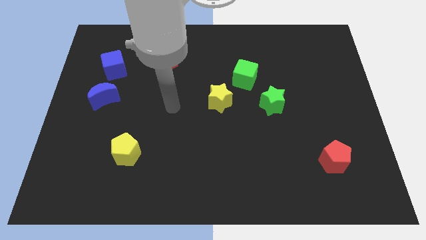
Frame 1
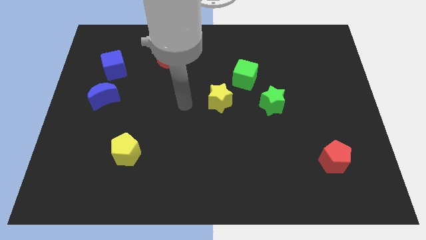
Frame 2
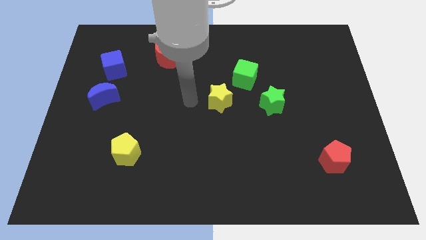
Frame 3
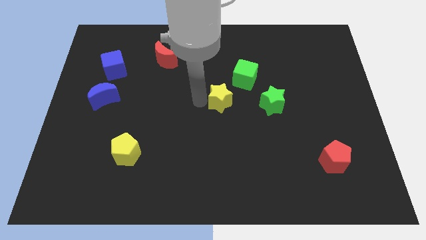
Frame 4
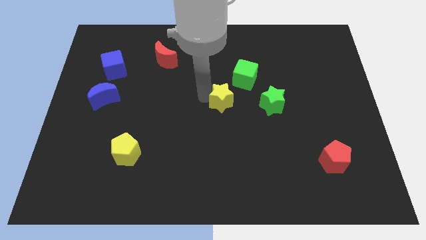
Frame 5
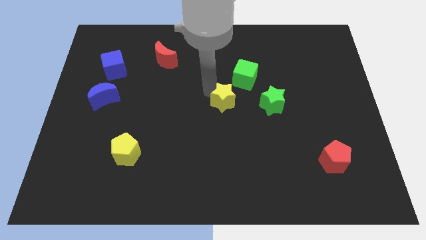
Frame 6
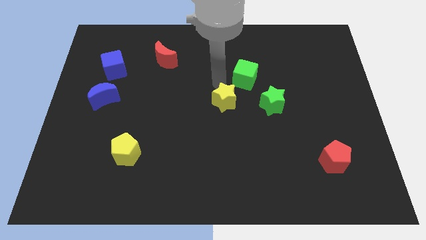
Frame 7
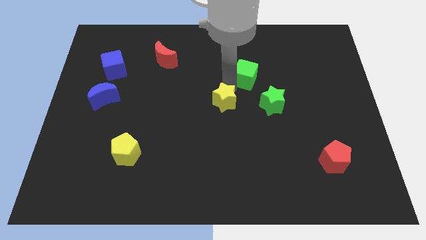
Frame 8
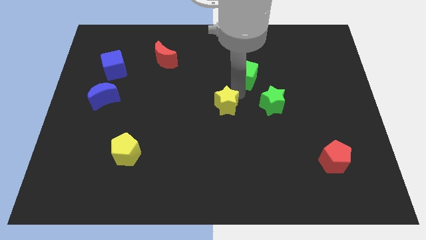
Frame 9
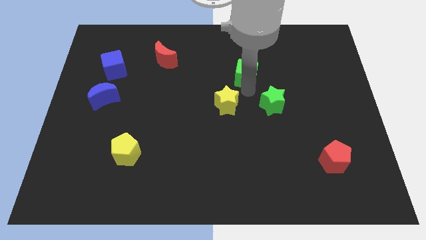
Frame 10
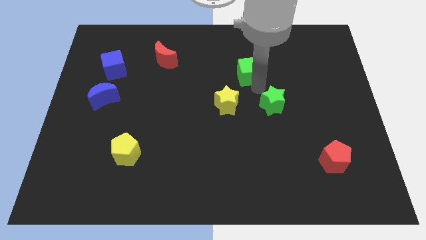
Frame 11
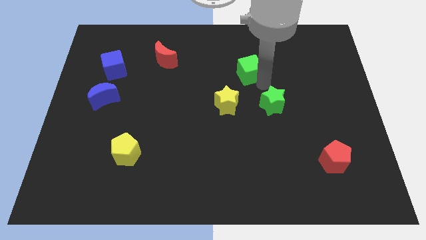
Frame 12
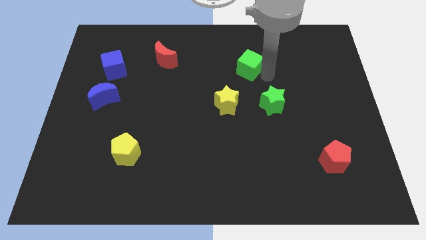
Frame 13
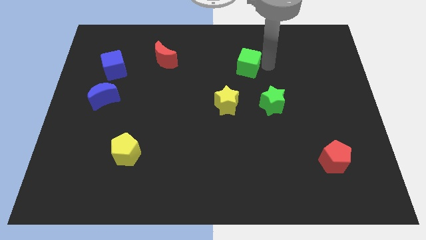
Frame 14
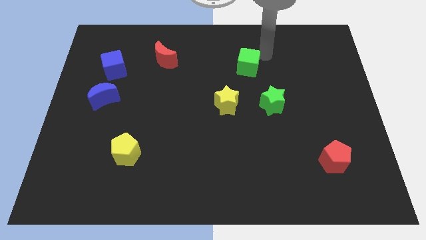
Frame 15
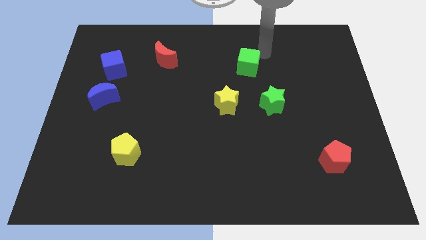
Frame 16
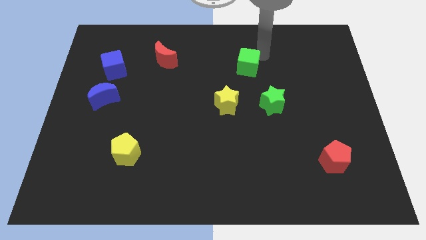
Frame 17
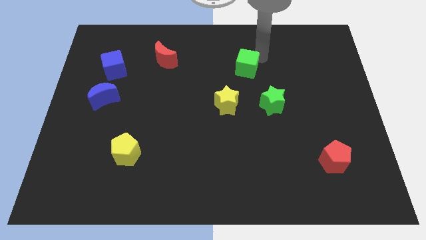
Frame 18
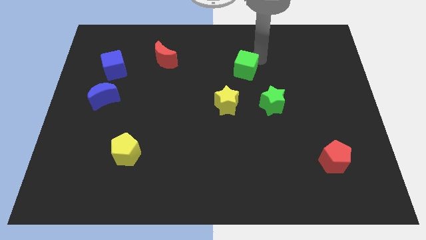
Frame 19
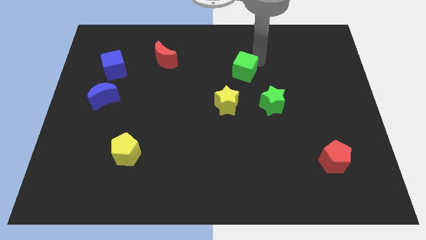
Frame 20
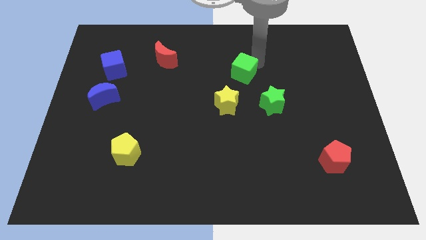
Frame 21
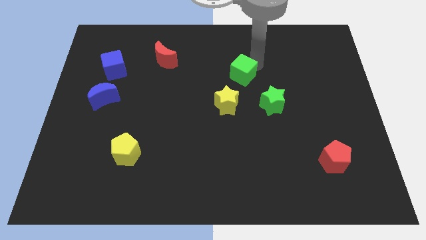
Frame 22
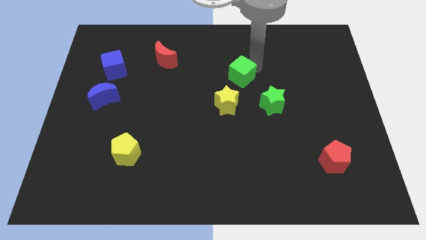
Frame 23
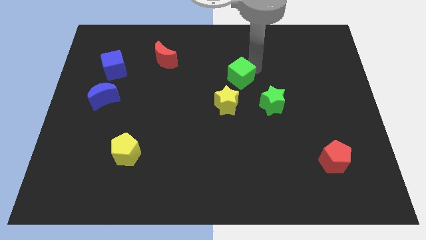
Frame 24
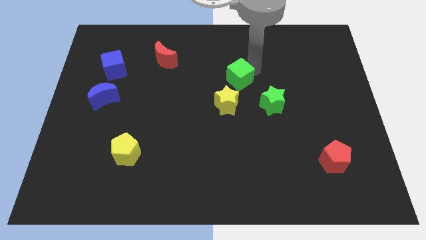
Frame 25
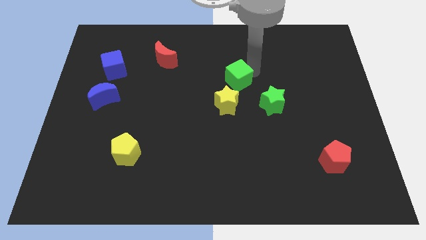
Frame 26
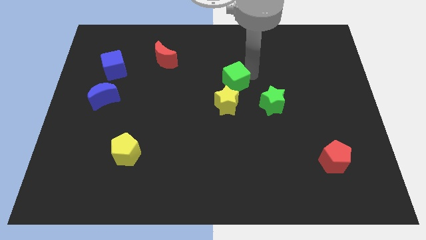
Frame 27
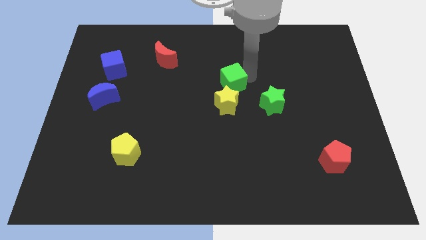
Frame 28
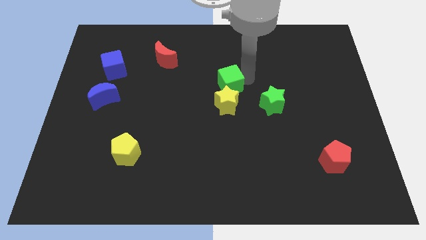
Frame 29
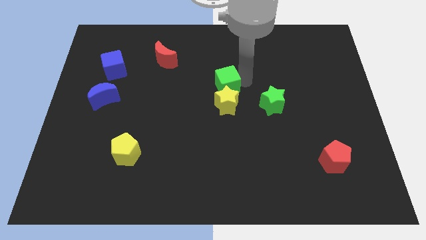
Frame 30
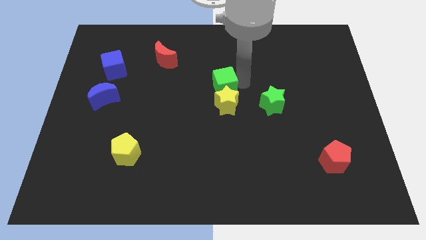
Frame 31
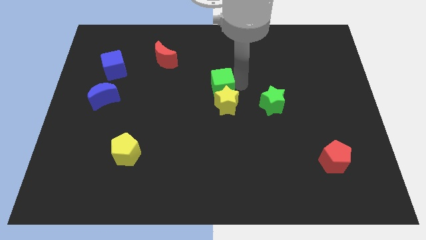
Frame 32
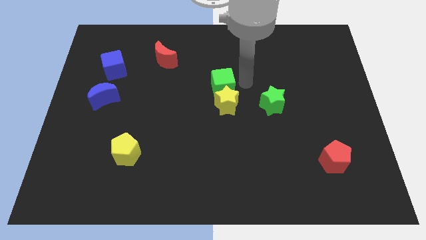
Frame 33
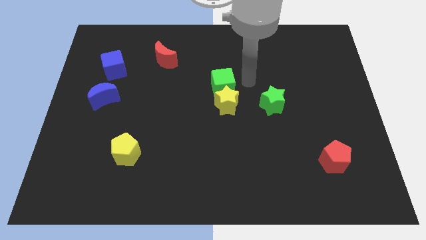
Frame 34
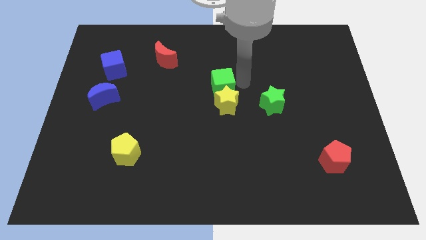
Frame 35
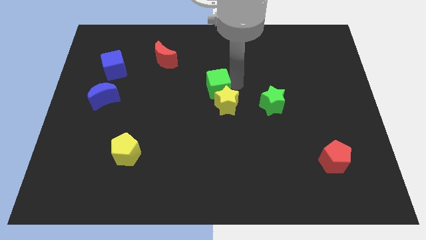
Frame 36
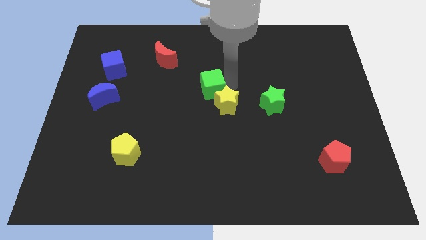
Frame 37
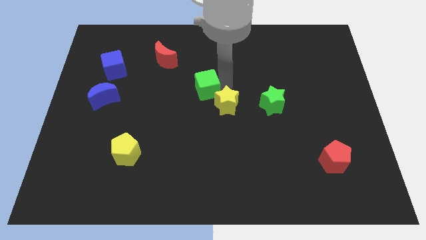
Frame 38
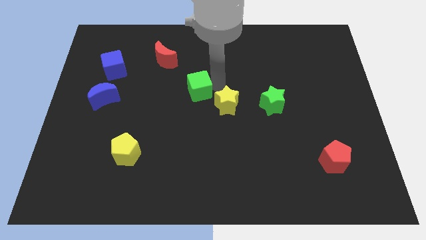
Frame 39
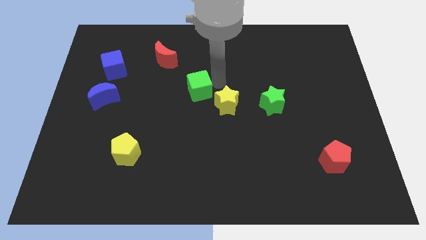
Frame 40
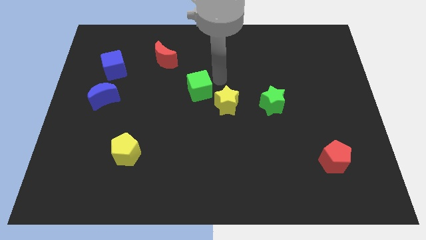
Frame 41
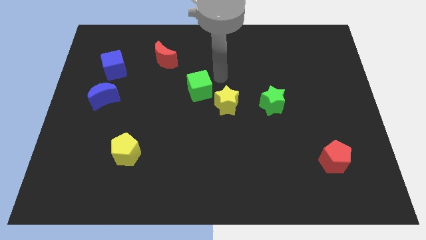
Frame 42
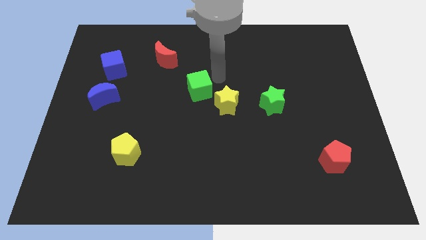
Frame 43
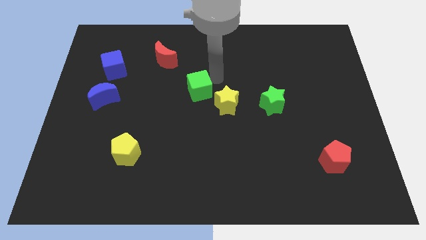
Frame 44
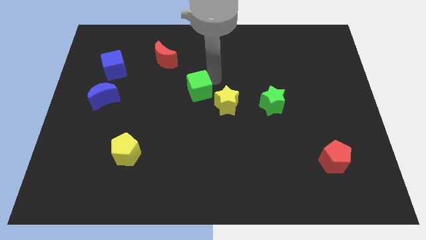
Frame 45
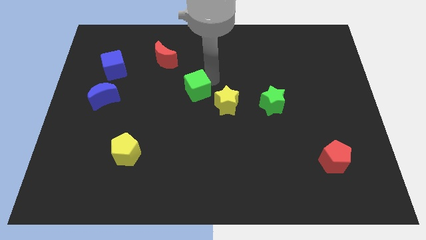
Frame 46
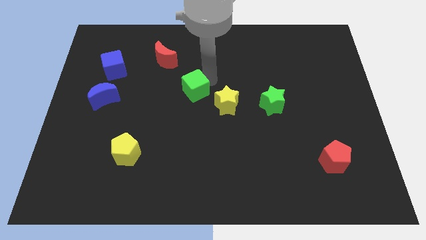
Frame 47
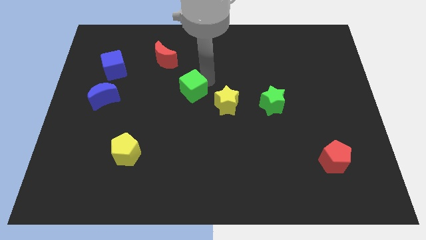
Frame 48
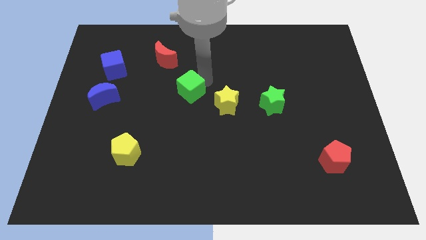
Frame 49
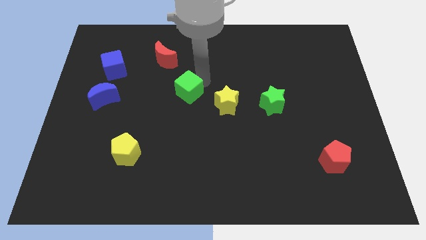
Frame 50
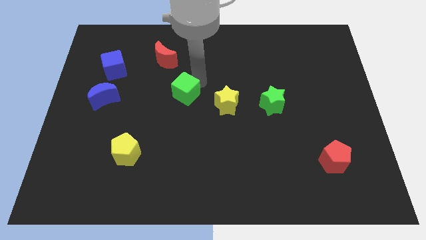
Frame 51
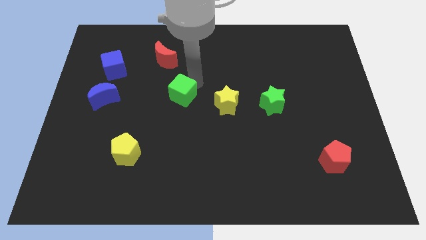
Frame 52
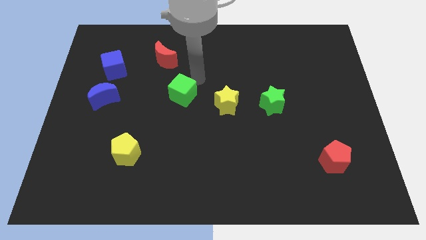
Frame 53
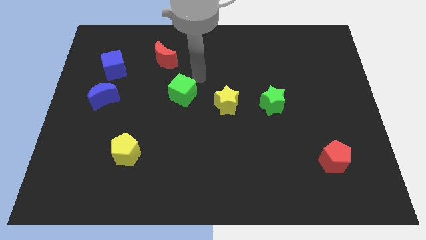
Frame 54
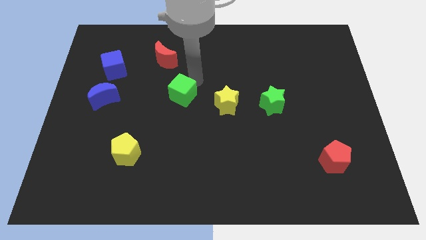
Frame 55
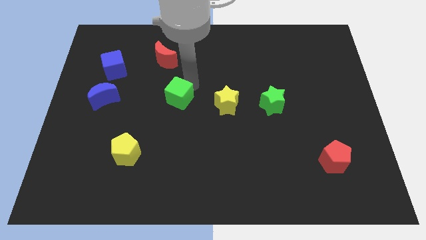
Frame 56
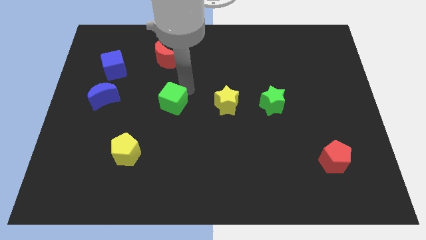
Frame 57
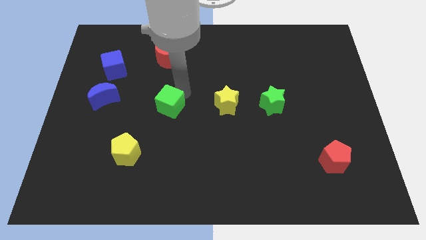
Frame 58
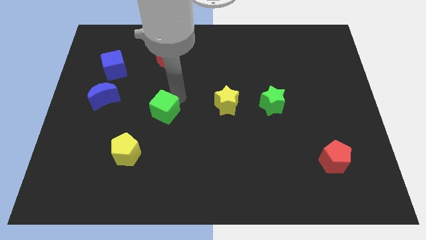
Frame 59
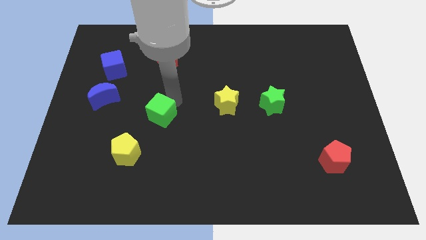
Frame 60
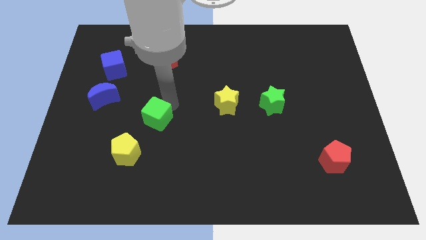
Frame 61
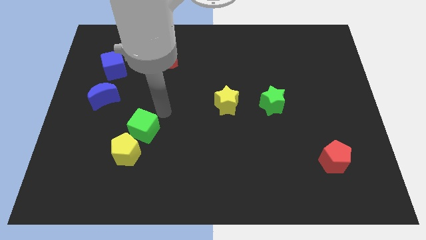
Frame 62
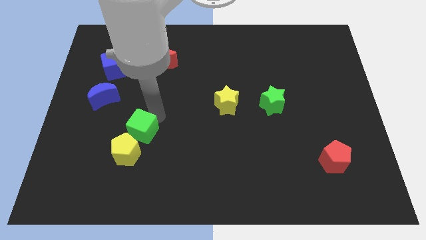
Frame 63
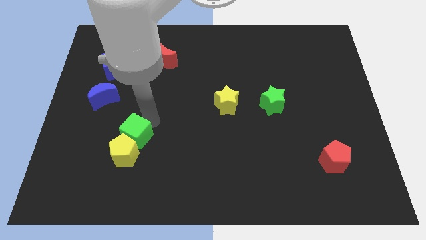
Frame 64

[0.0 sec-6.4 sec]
push the green cube towards the yellow pentagon

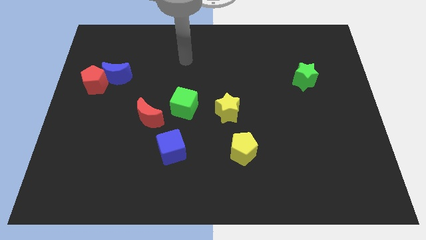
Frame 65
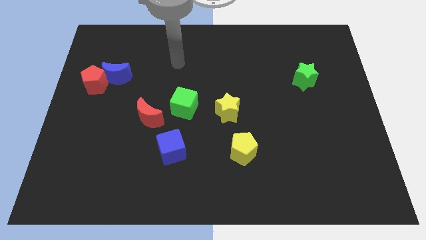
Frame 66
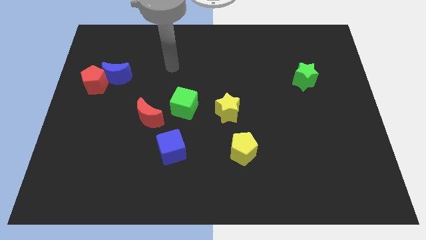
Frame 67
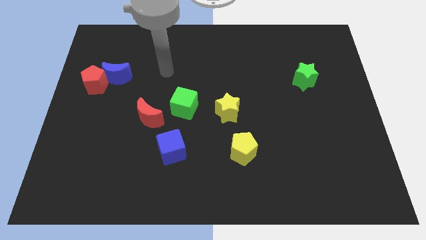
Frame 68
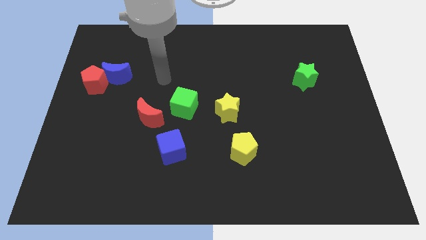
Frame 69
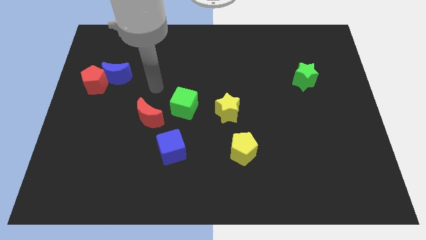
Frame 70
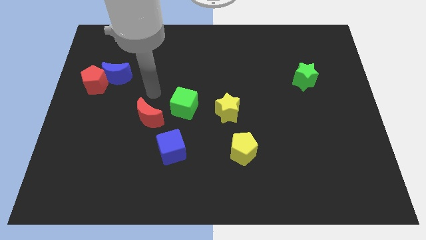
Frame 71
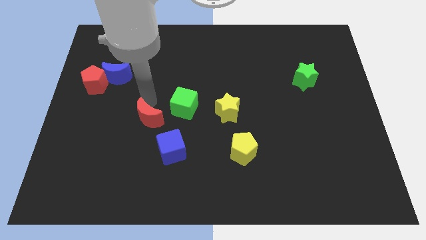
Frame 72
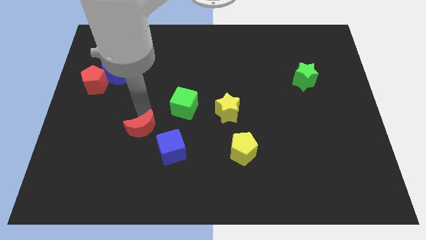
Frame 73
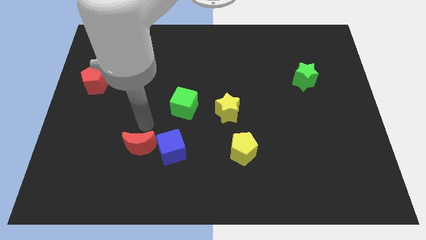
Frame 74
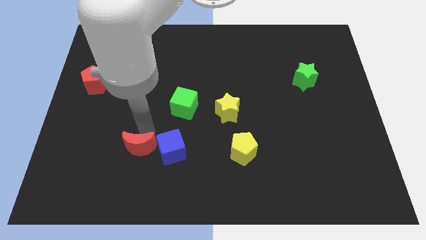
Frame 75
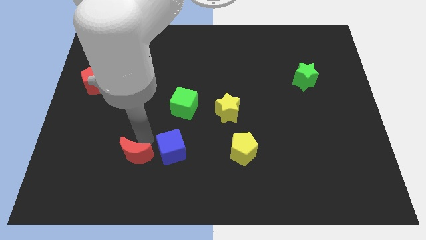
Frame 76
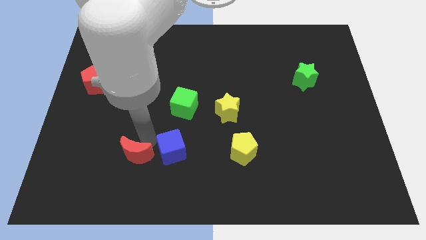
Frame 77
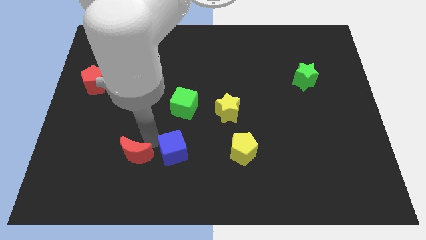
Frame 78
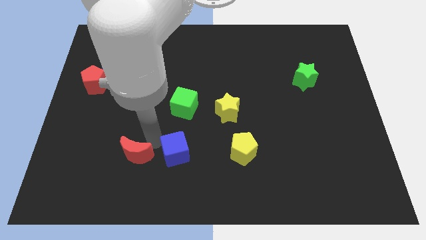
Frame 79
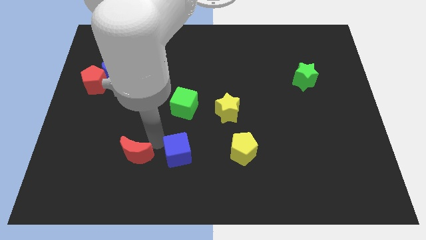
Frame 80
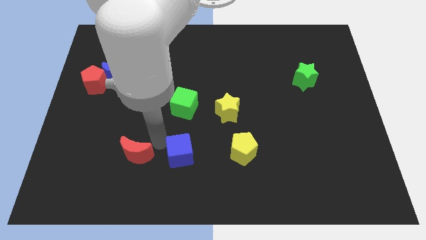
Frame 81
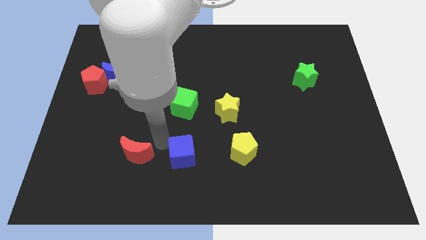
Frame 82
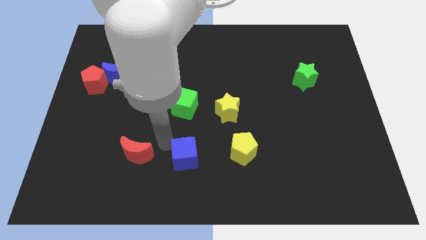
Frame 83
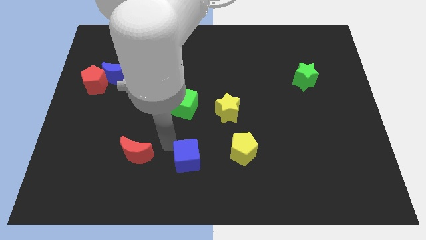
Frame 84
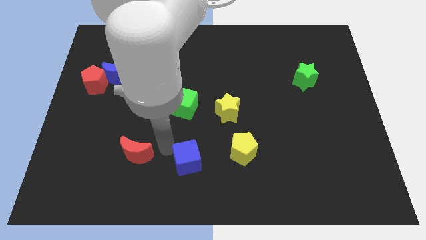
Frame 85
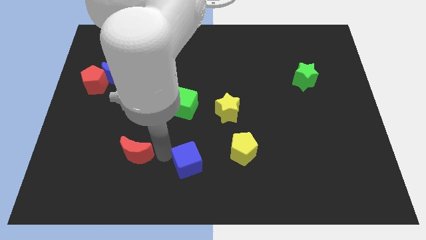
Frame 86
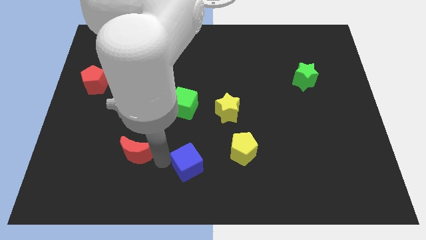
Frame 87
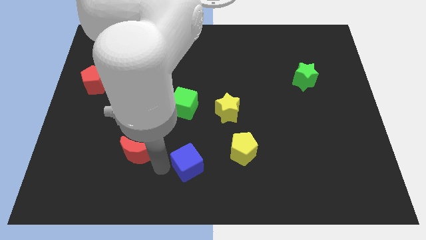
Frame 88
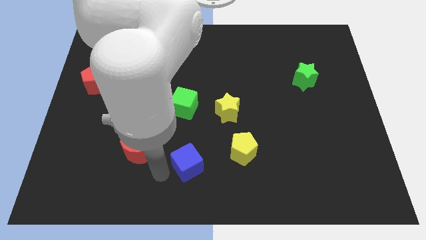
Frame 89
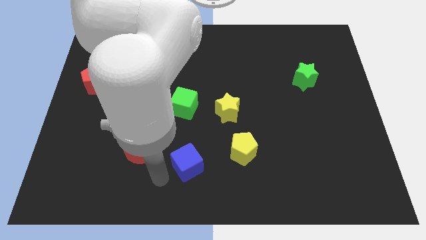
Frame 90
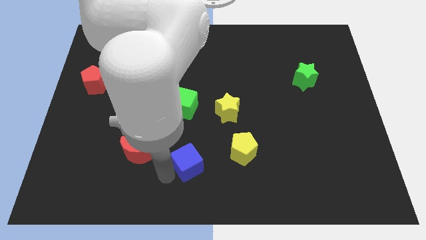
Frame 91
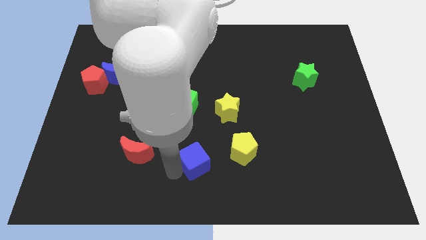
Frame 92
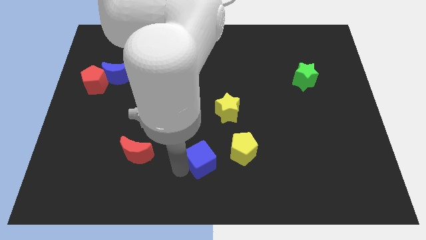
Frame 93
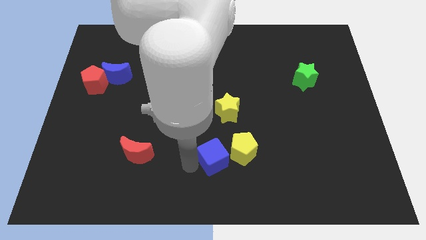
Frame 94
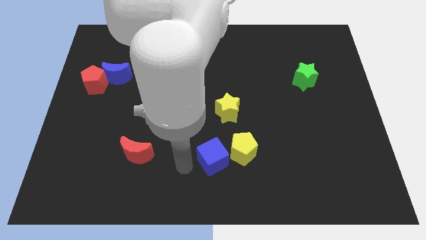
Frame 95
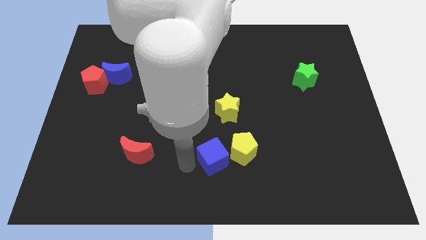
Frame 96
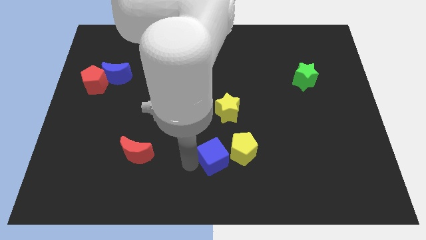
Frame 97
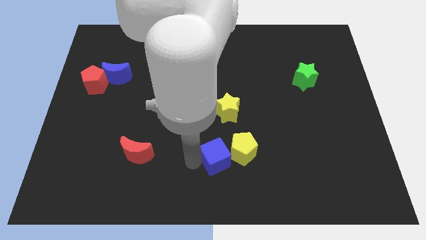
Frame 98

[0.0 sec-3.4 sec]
put the blue cube towards the yellow pentagon
